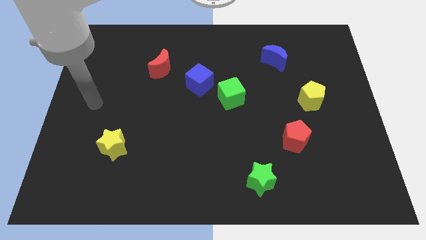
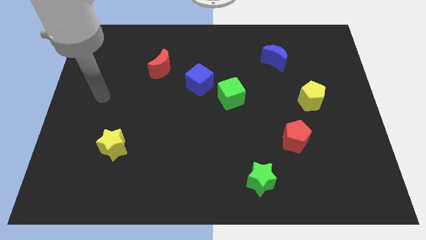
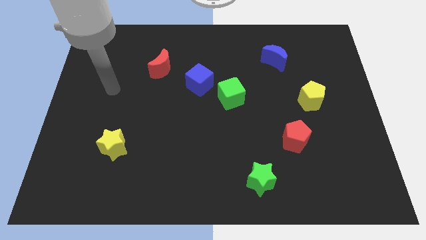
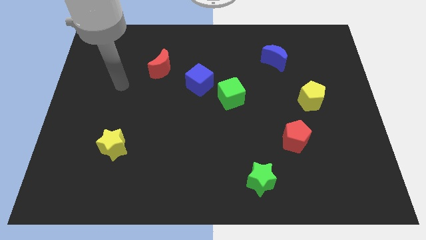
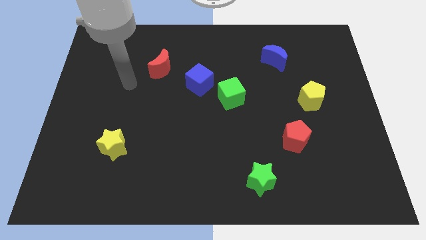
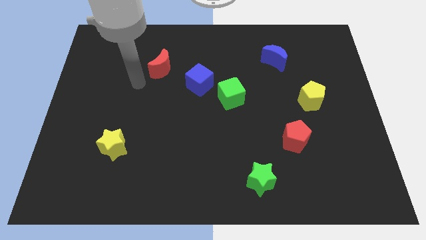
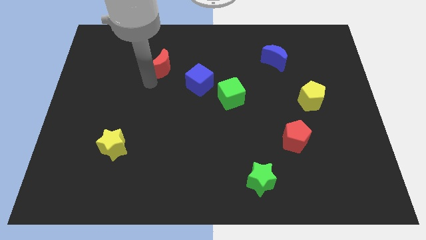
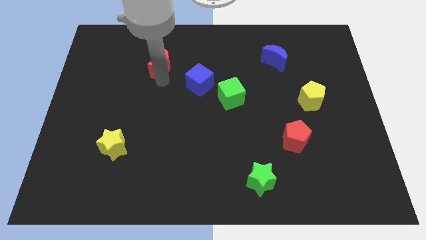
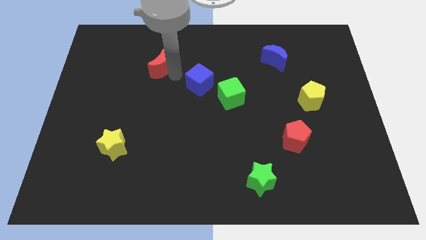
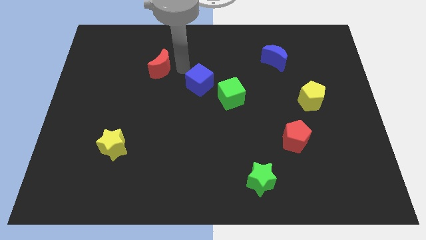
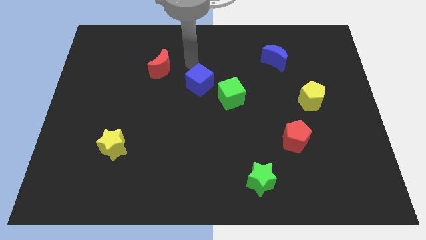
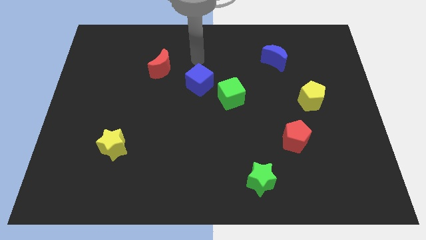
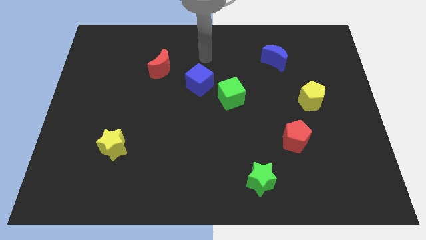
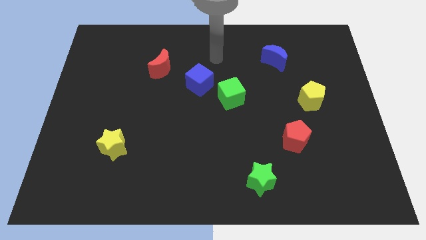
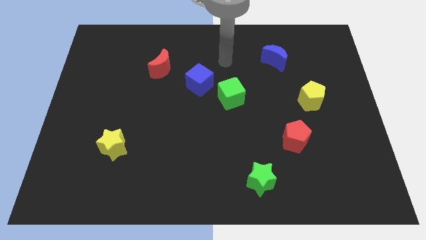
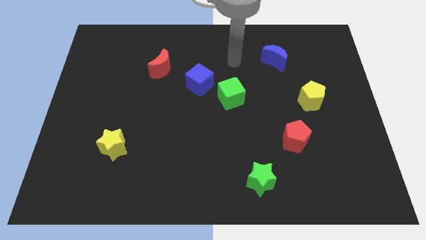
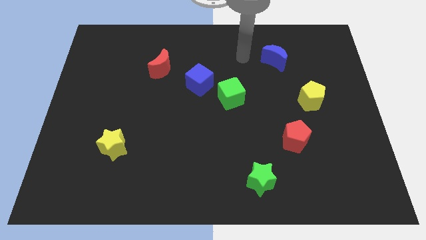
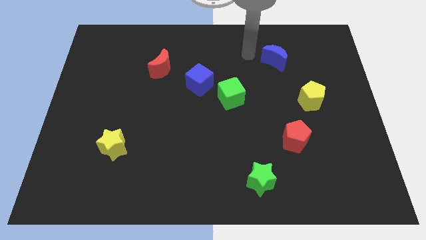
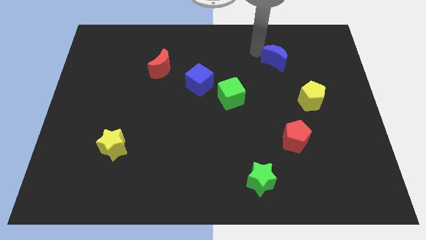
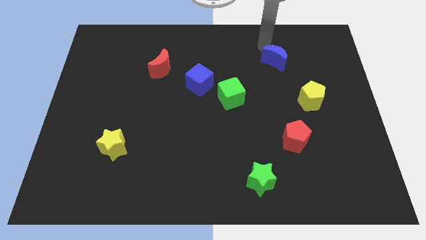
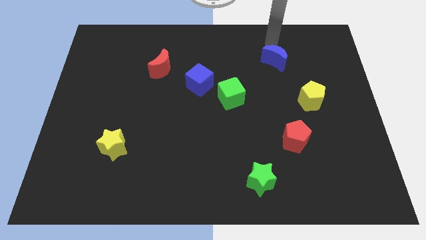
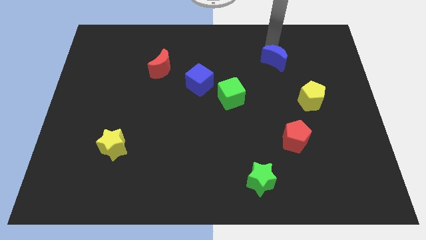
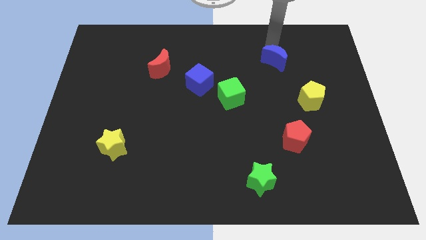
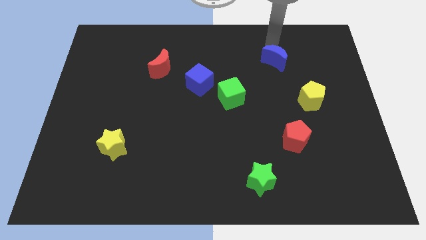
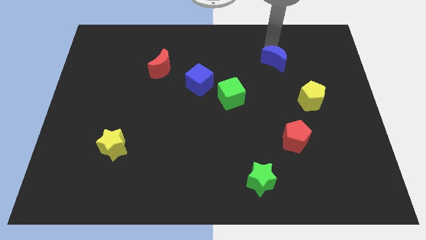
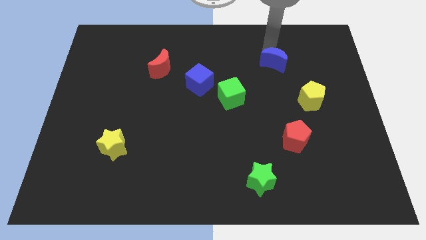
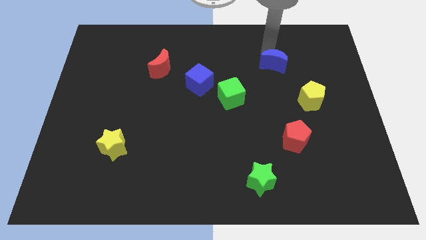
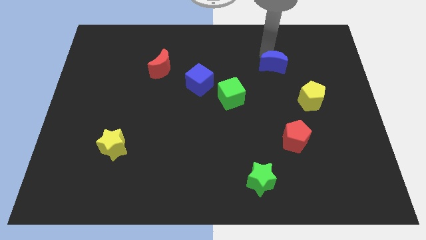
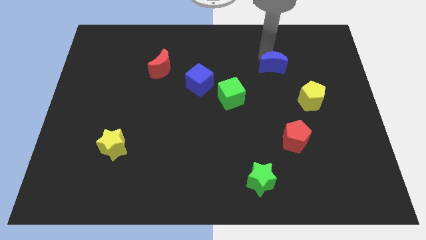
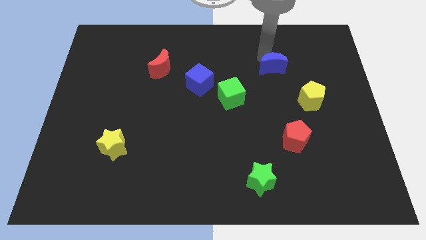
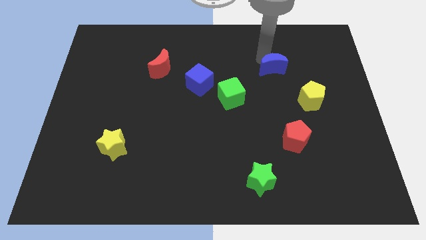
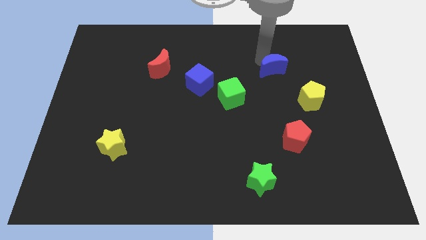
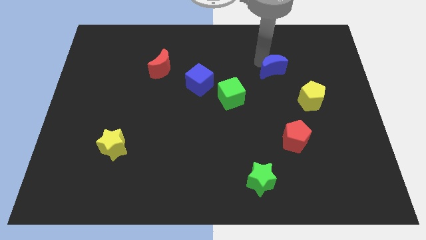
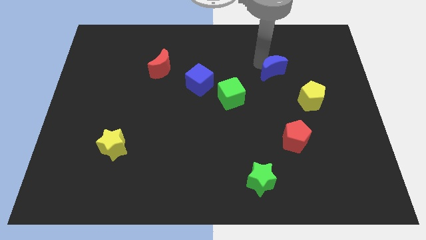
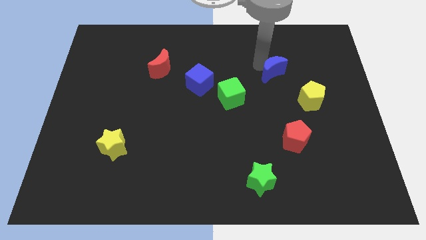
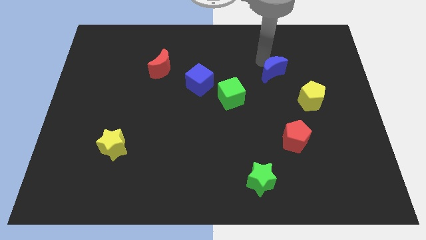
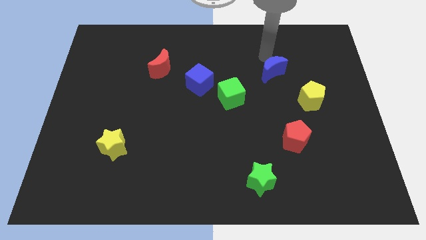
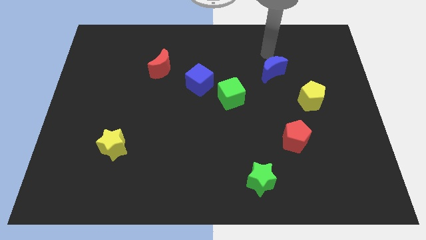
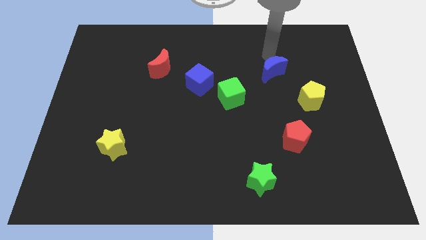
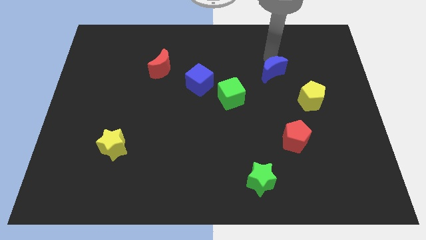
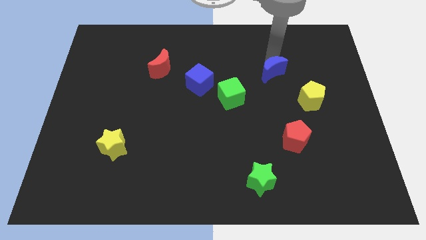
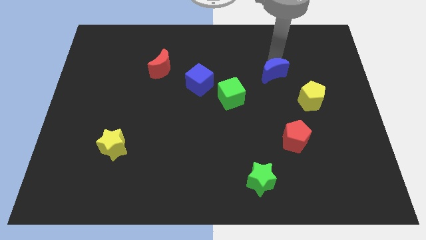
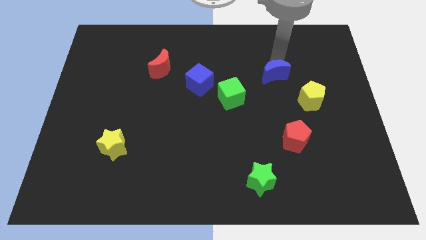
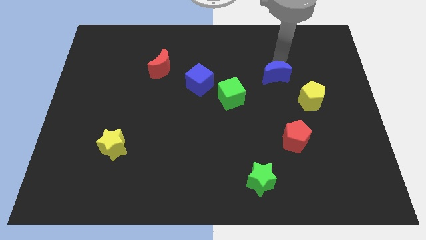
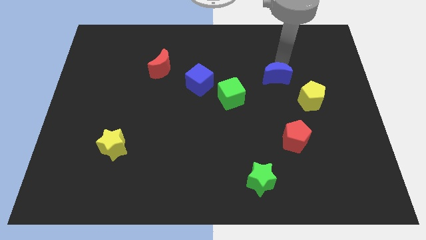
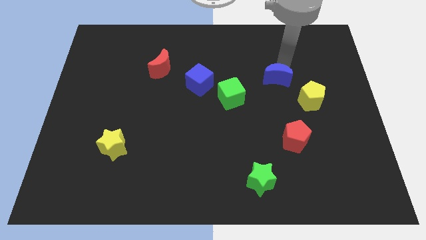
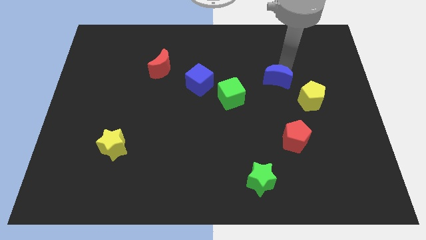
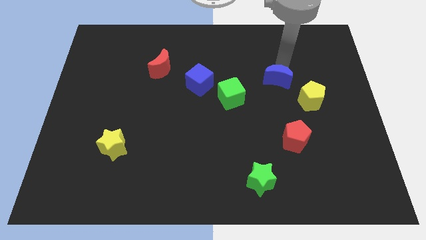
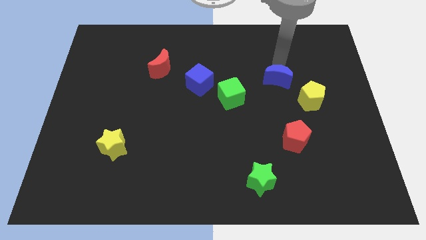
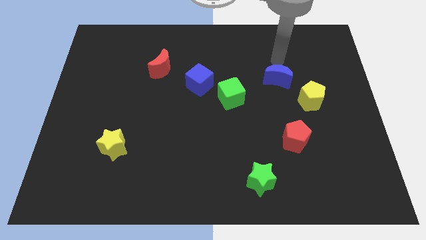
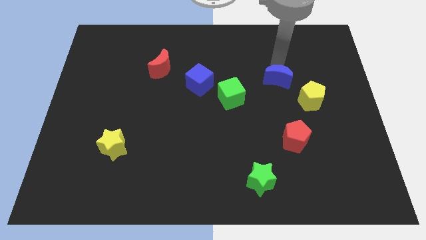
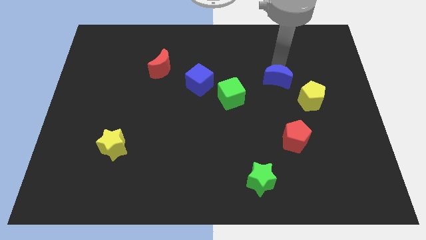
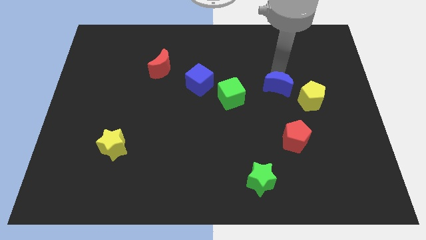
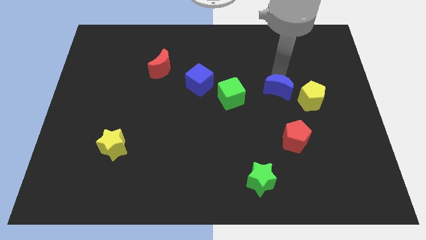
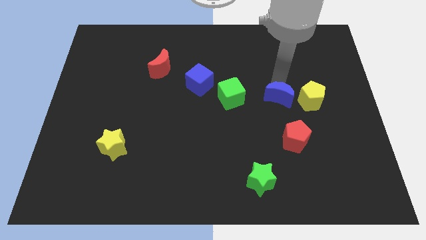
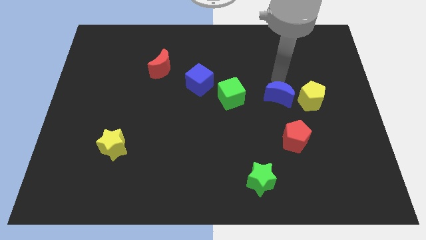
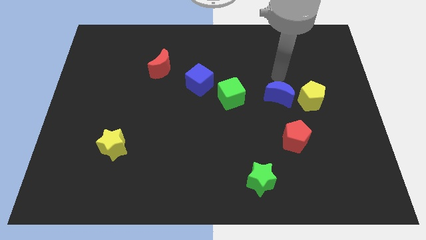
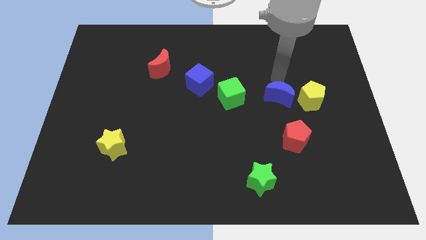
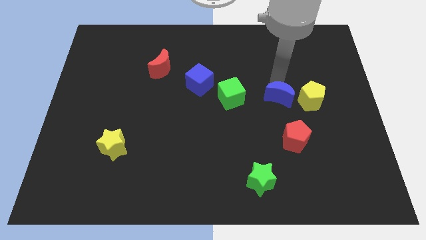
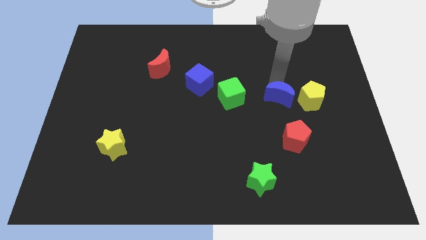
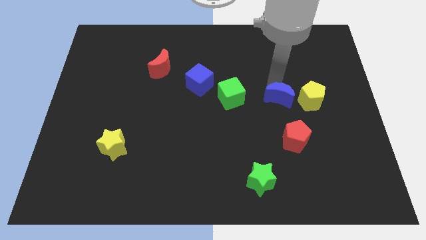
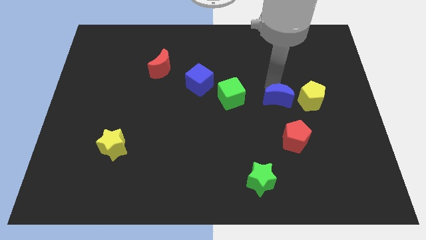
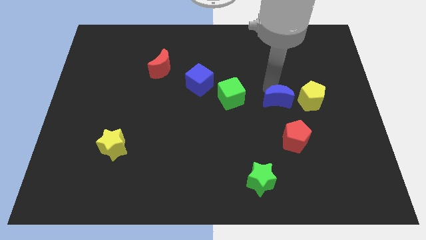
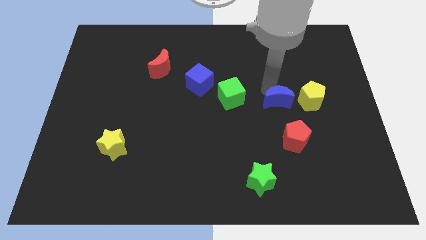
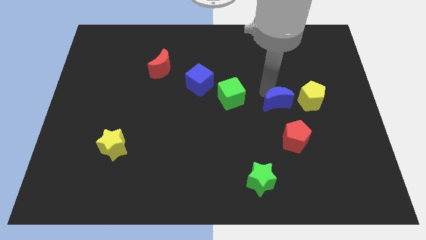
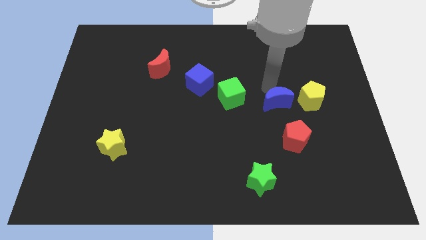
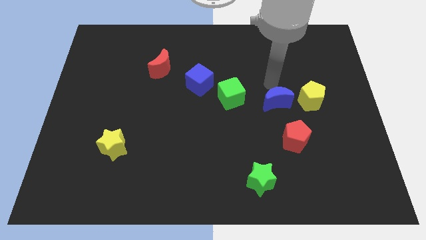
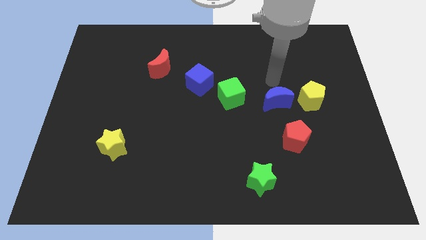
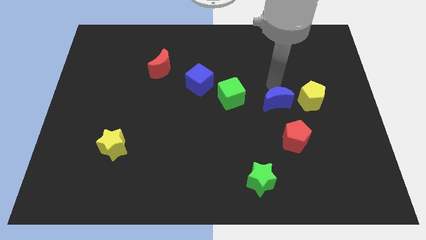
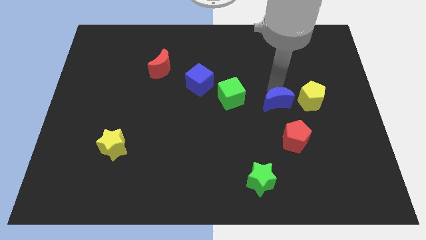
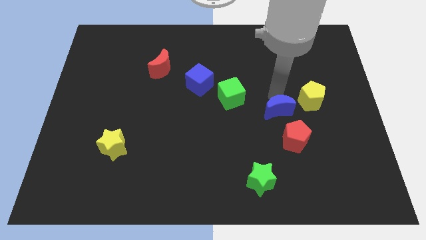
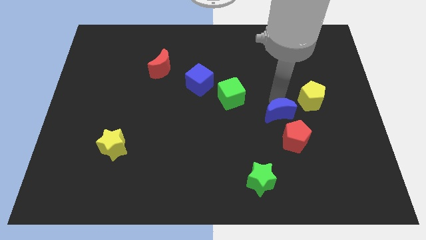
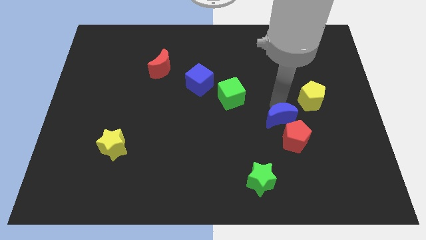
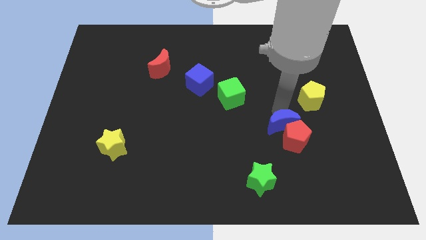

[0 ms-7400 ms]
move the blue moon down

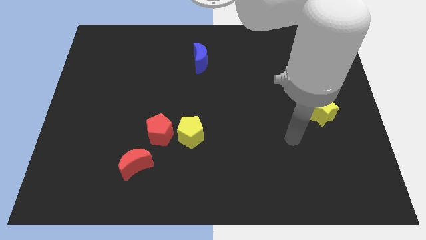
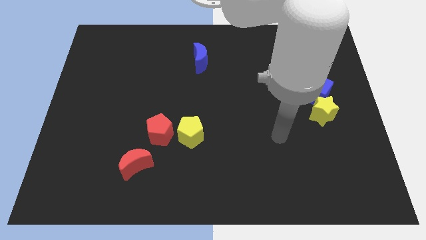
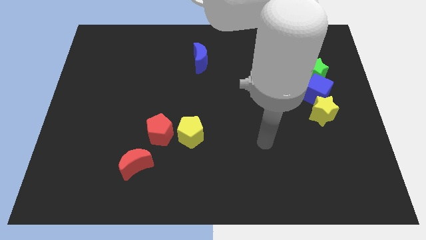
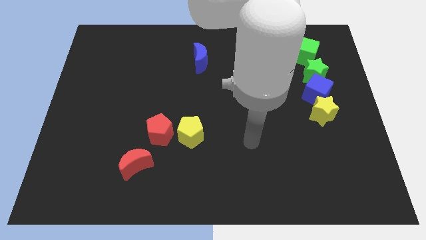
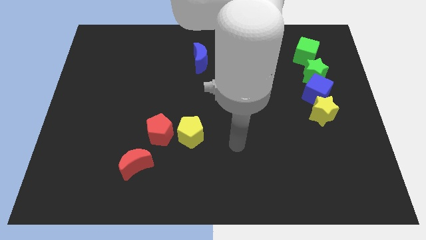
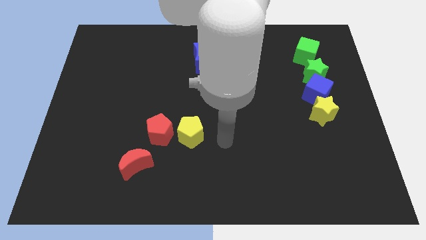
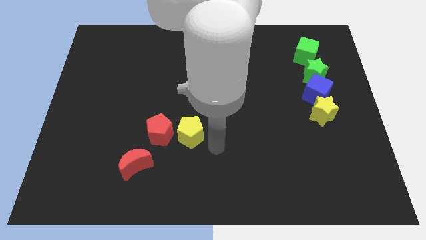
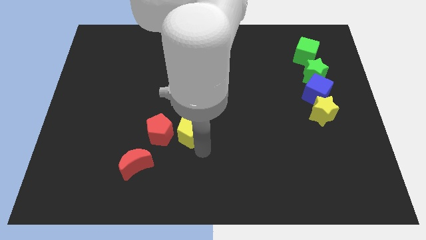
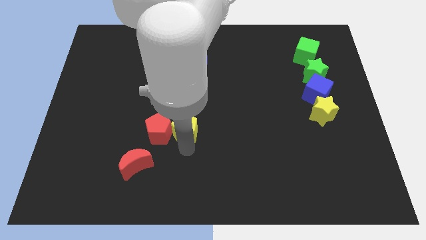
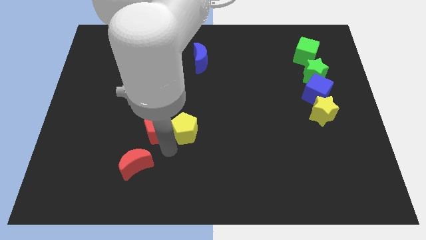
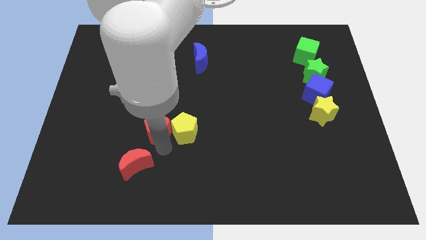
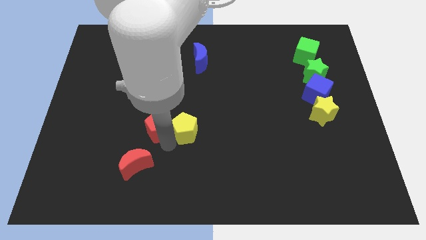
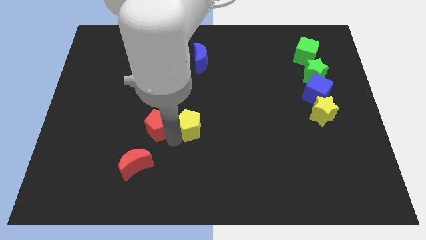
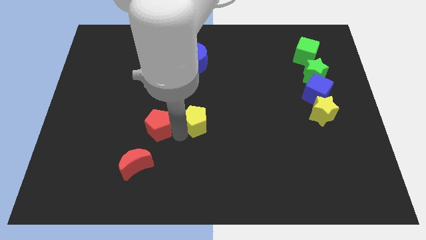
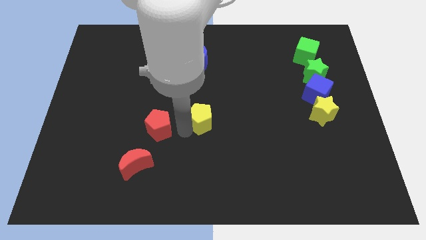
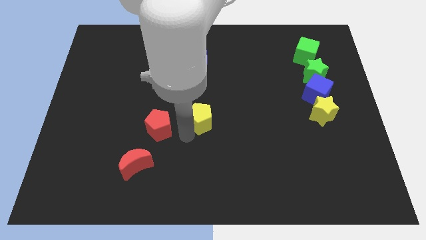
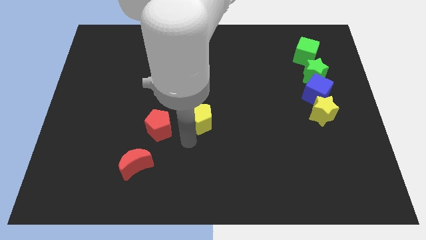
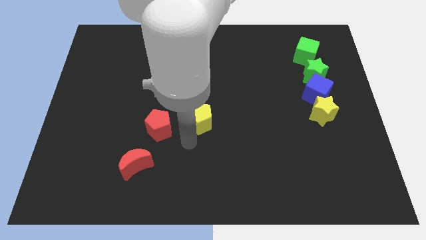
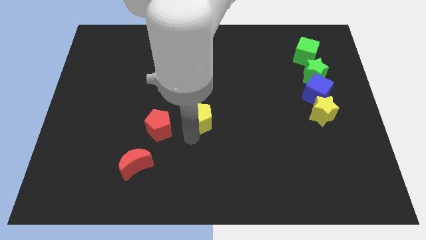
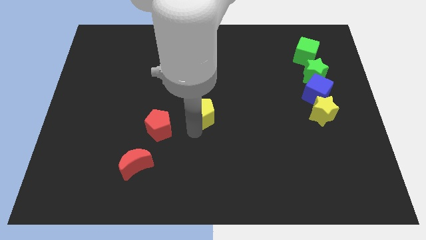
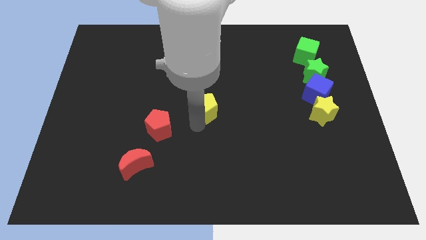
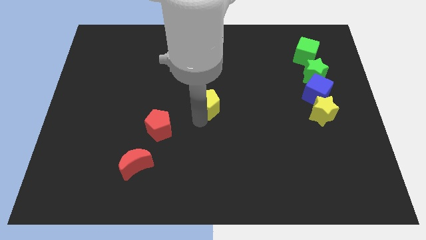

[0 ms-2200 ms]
move the yellow pentagon up somewhat
